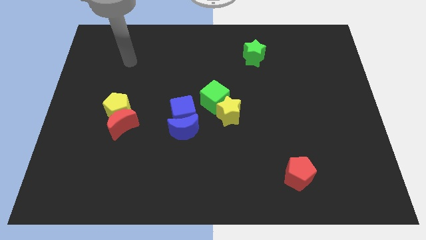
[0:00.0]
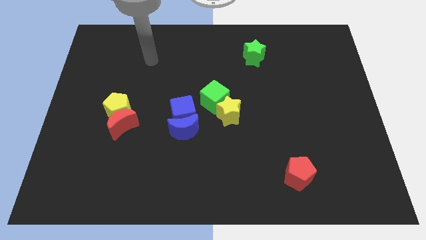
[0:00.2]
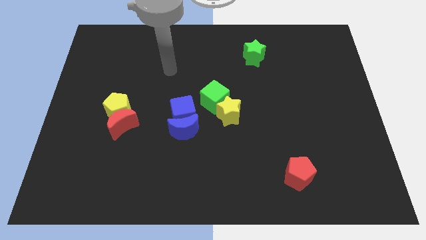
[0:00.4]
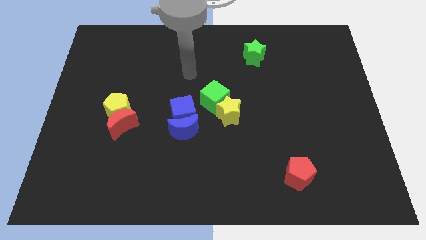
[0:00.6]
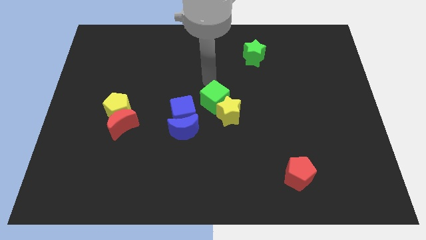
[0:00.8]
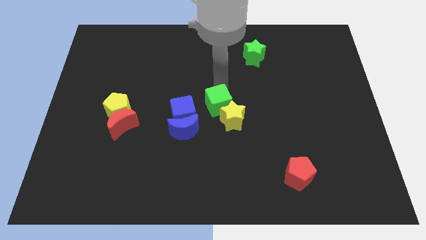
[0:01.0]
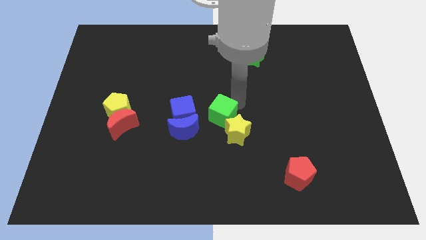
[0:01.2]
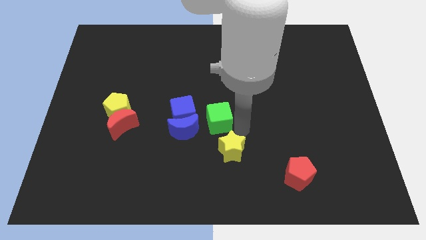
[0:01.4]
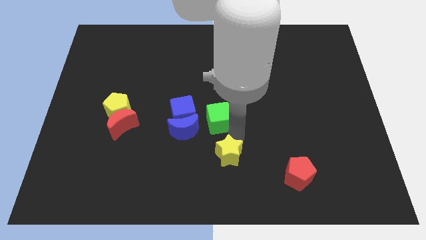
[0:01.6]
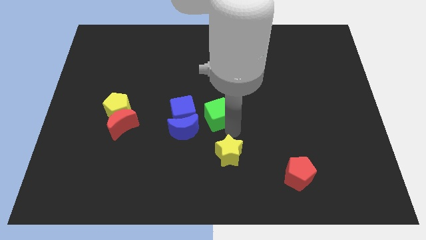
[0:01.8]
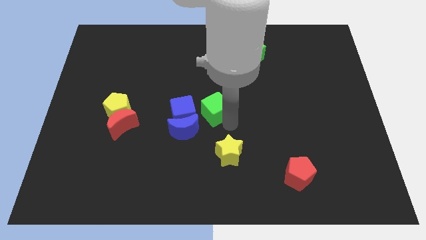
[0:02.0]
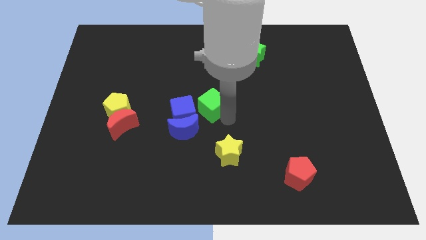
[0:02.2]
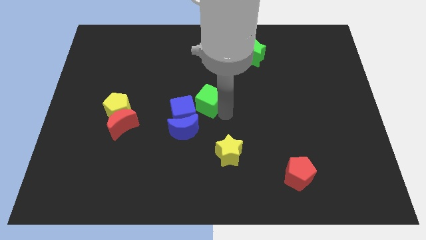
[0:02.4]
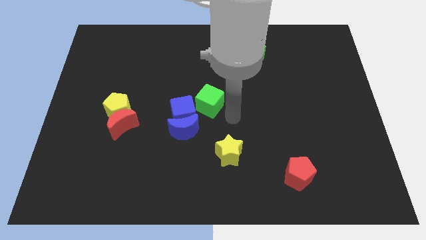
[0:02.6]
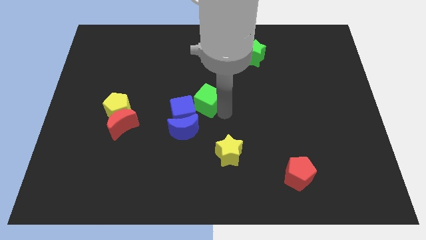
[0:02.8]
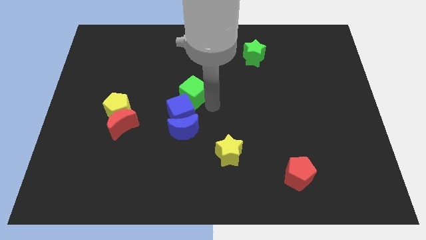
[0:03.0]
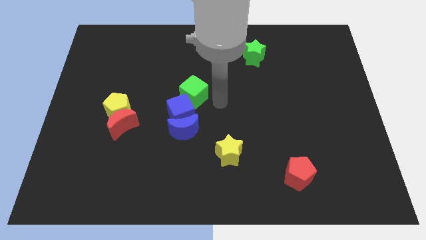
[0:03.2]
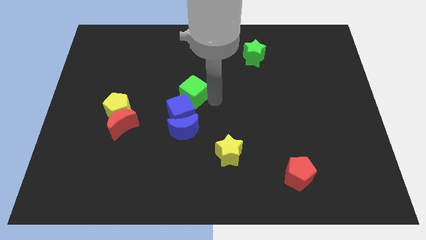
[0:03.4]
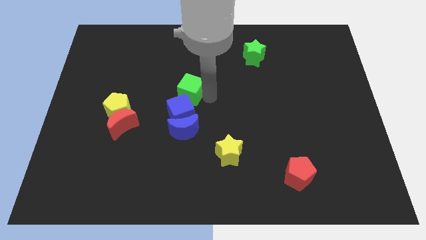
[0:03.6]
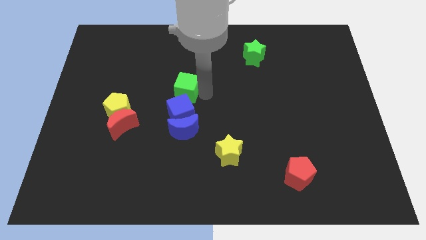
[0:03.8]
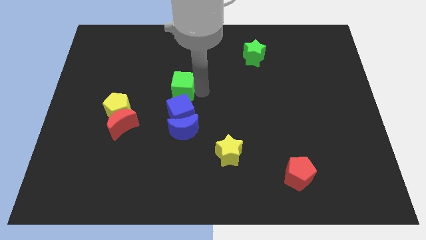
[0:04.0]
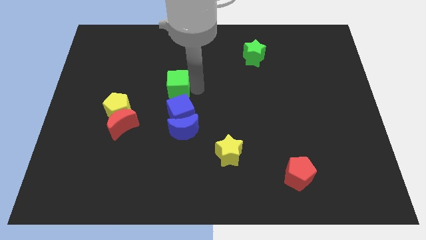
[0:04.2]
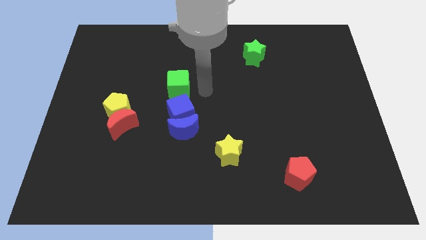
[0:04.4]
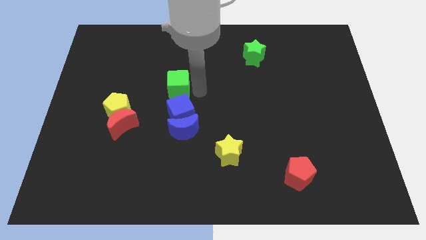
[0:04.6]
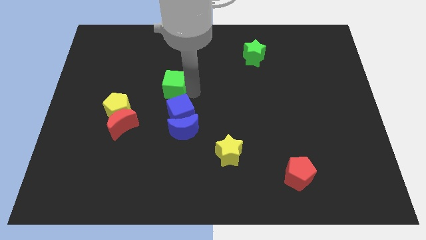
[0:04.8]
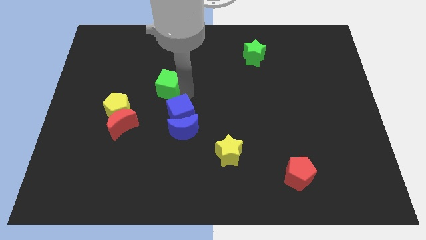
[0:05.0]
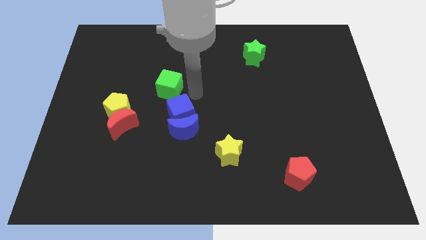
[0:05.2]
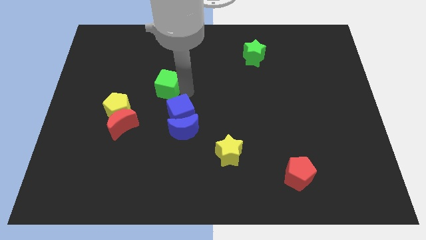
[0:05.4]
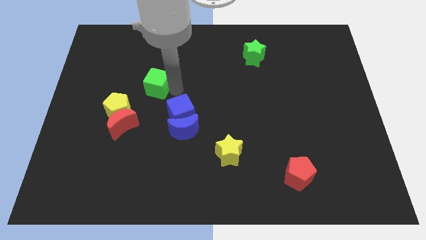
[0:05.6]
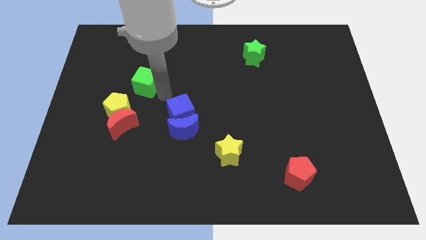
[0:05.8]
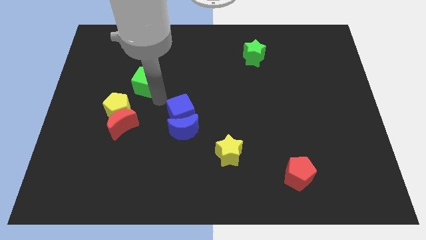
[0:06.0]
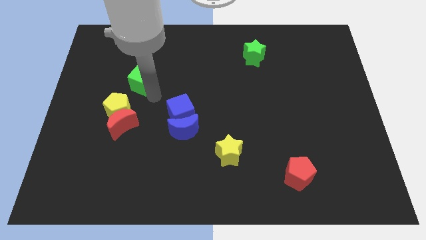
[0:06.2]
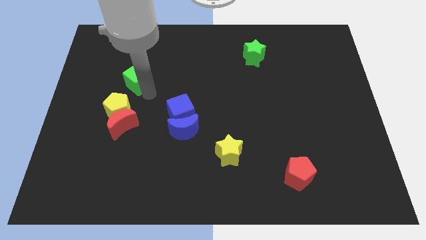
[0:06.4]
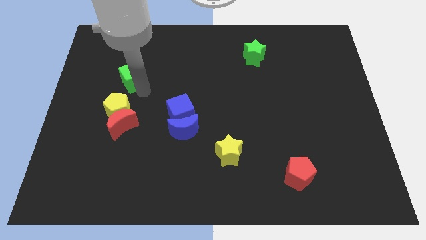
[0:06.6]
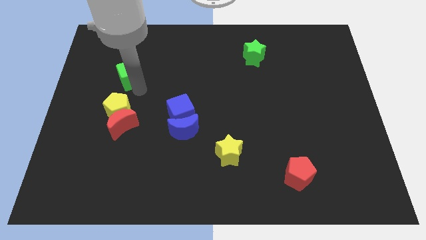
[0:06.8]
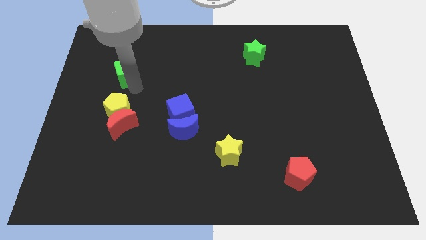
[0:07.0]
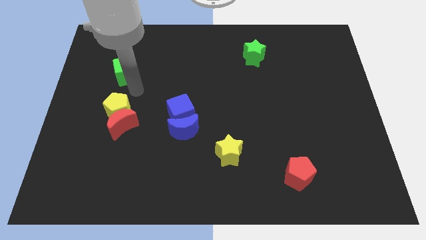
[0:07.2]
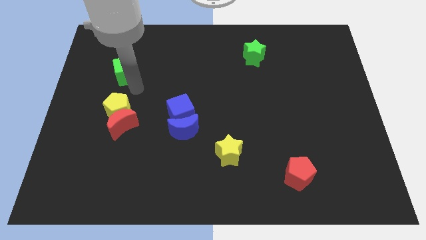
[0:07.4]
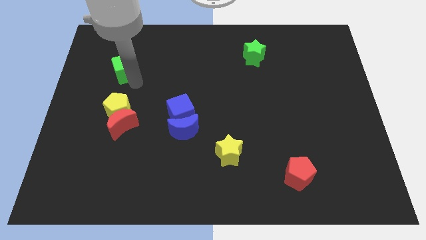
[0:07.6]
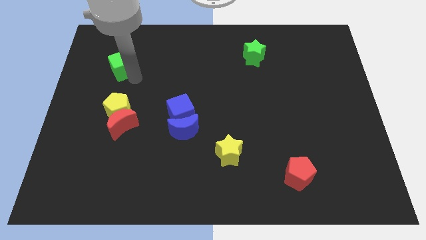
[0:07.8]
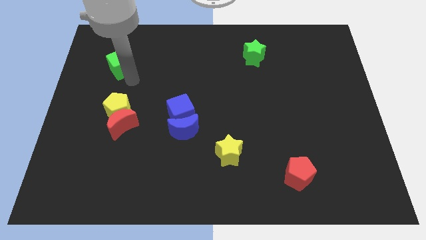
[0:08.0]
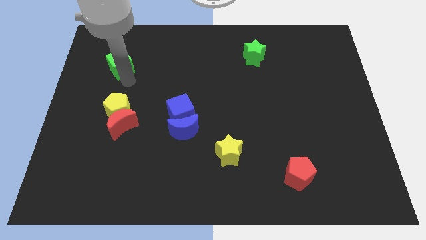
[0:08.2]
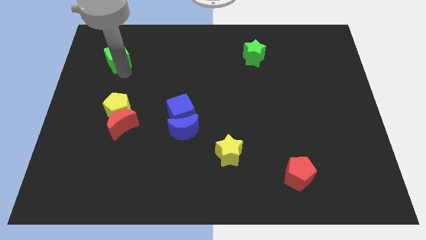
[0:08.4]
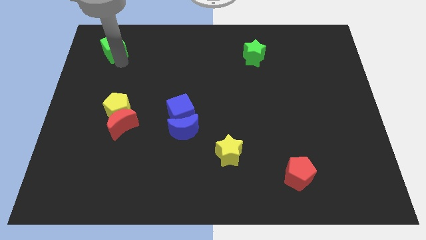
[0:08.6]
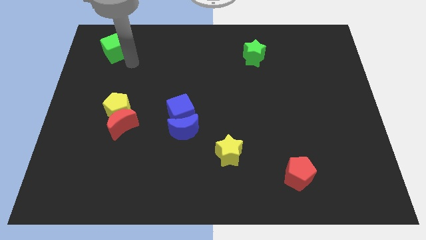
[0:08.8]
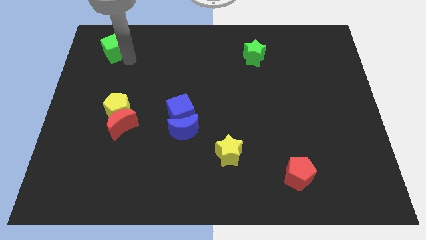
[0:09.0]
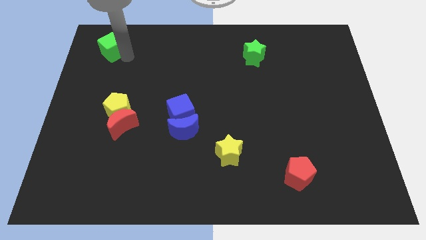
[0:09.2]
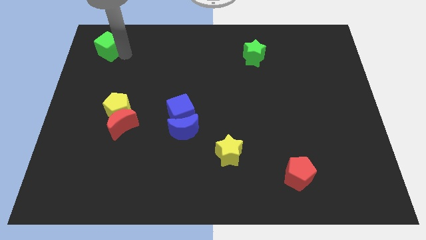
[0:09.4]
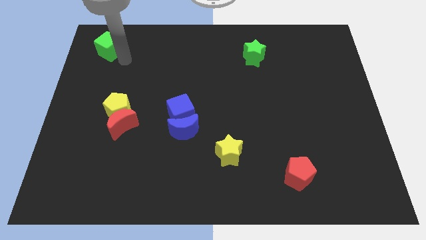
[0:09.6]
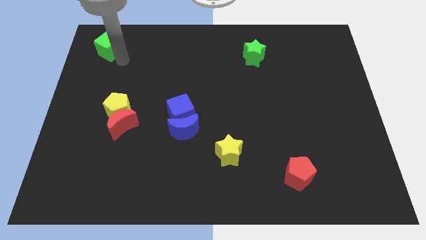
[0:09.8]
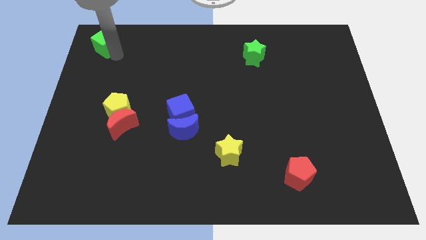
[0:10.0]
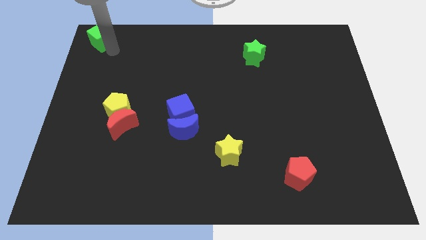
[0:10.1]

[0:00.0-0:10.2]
put the green cube to the upper left corner

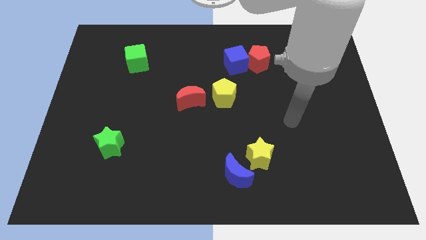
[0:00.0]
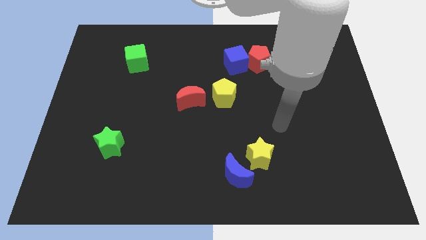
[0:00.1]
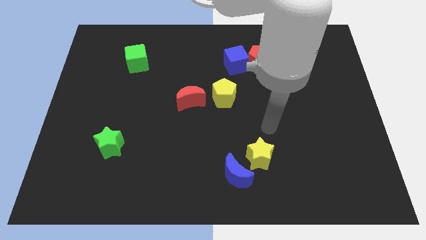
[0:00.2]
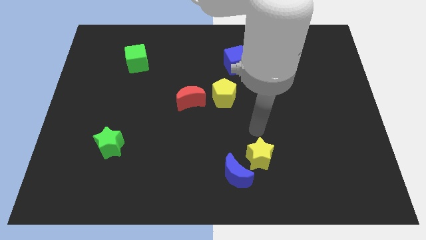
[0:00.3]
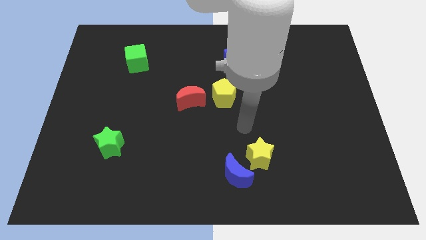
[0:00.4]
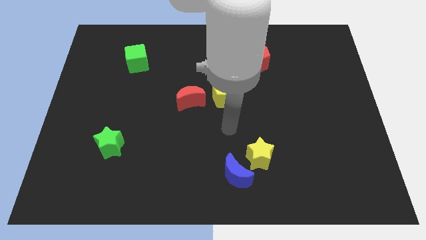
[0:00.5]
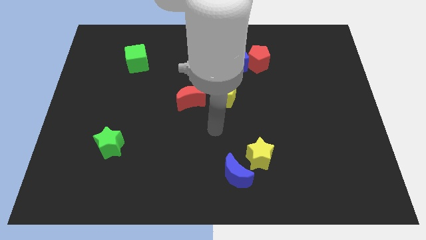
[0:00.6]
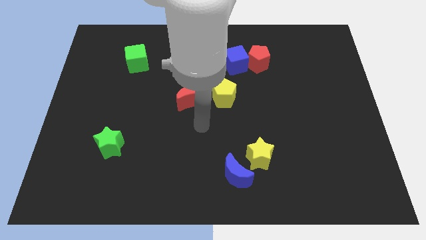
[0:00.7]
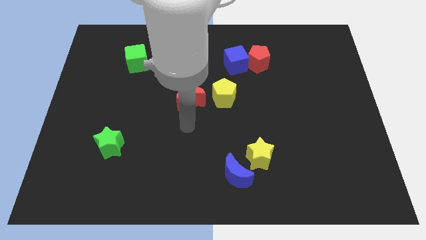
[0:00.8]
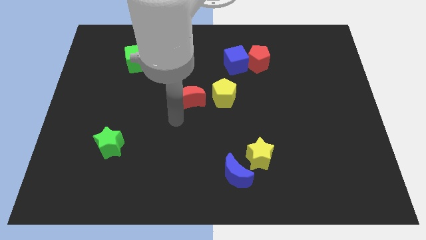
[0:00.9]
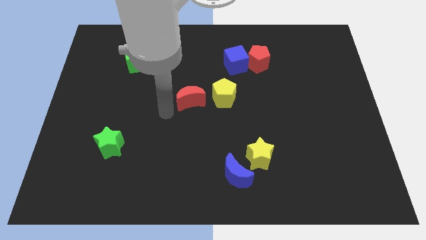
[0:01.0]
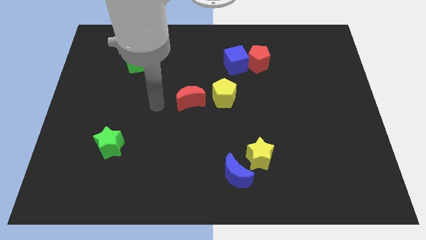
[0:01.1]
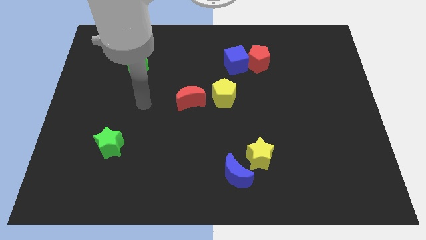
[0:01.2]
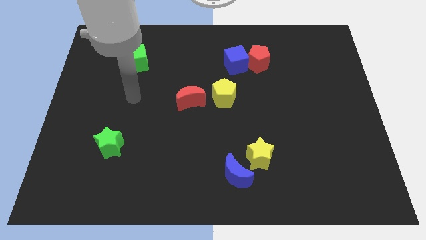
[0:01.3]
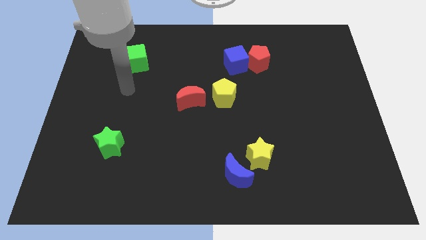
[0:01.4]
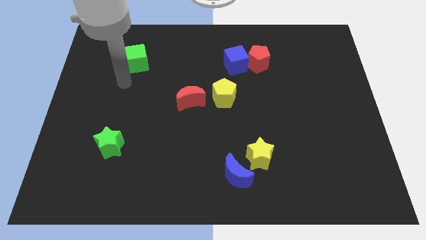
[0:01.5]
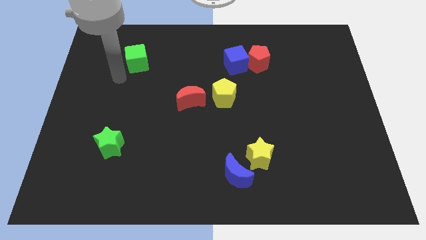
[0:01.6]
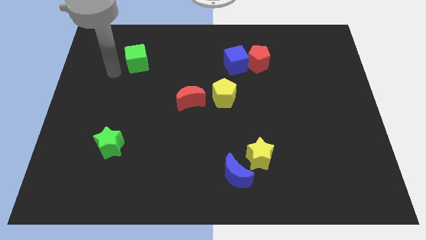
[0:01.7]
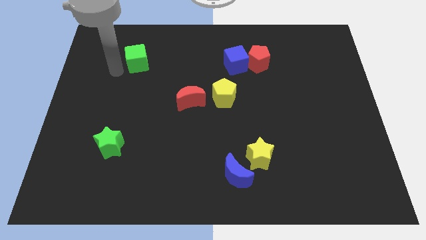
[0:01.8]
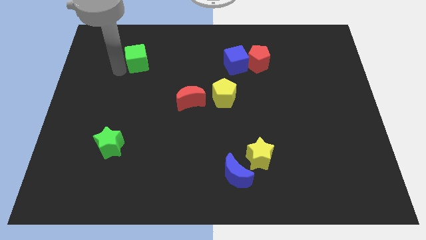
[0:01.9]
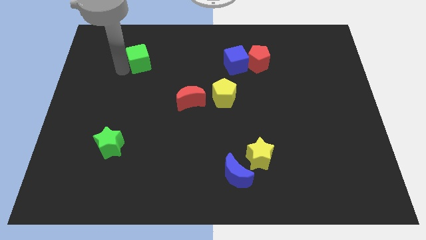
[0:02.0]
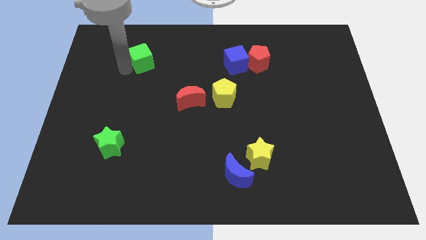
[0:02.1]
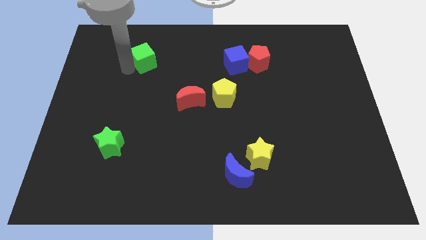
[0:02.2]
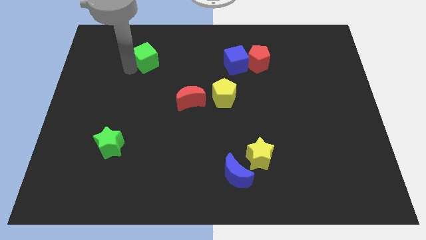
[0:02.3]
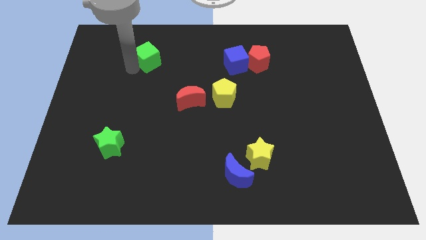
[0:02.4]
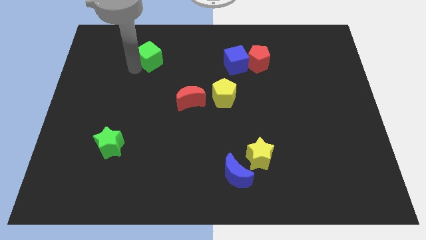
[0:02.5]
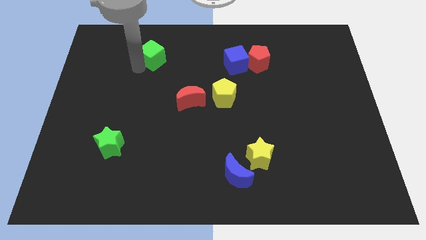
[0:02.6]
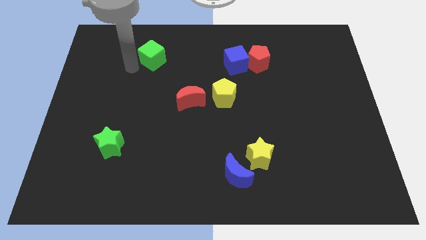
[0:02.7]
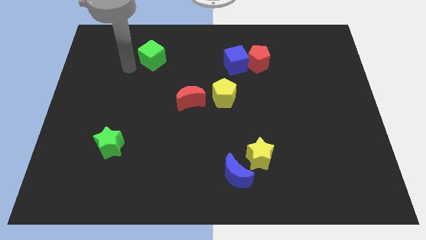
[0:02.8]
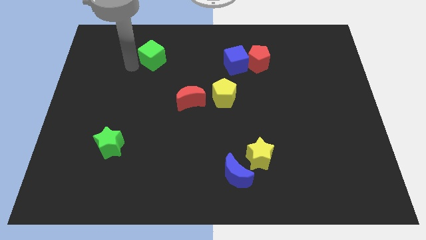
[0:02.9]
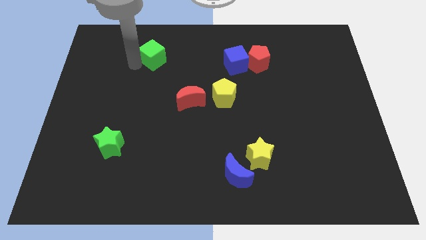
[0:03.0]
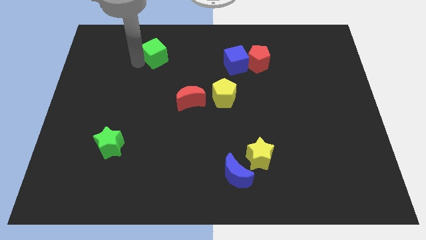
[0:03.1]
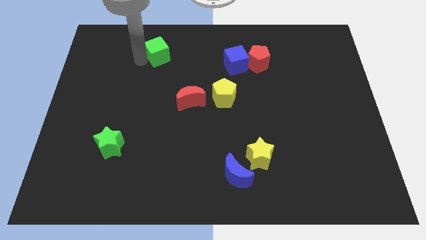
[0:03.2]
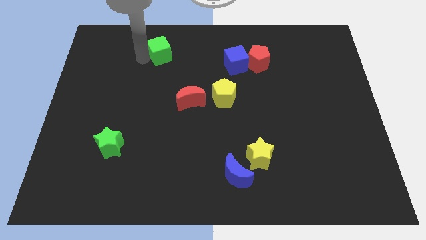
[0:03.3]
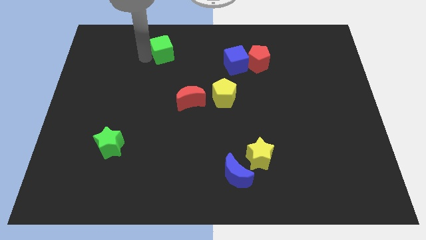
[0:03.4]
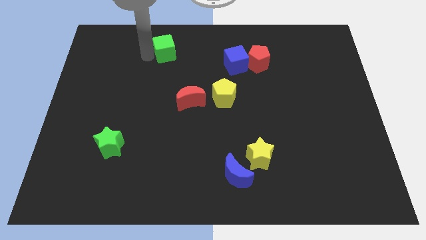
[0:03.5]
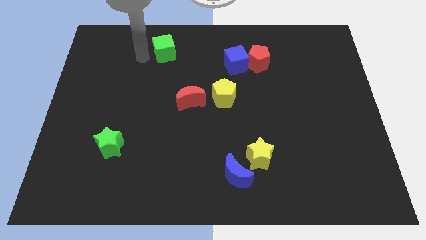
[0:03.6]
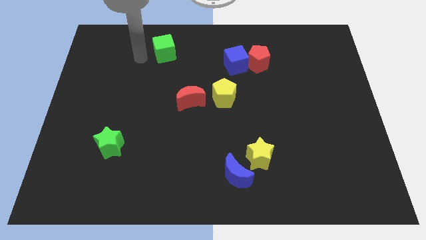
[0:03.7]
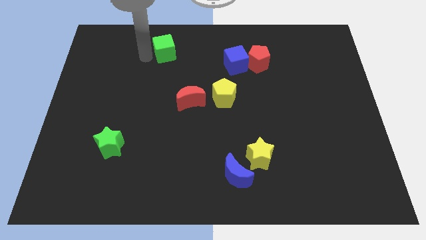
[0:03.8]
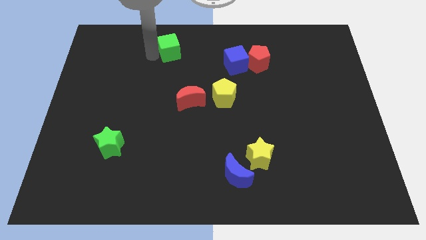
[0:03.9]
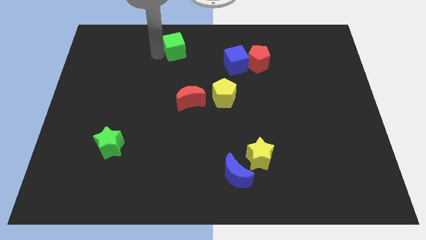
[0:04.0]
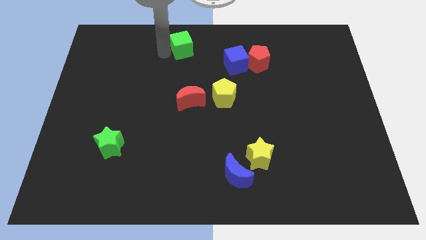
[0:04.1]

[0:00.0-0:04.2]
slide the green cube to the top side
